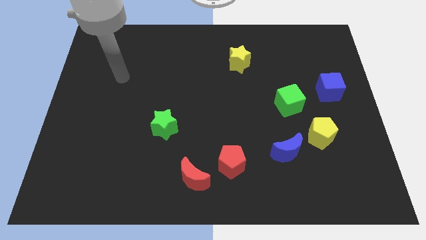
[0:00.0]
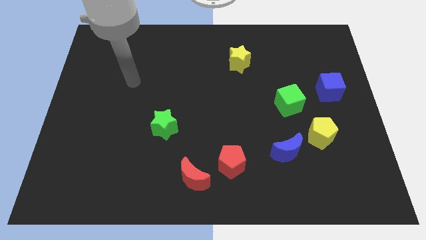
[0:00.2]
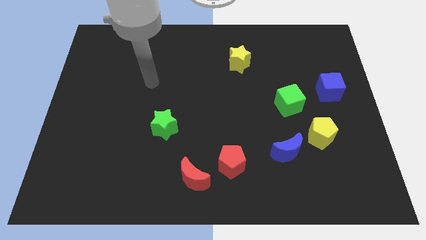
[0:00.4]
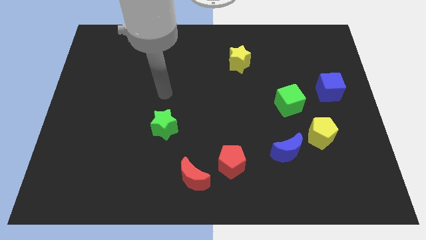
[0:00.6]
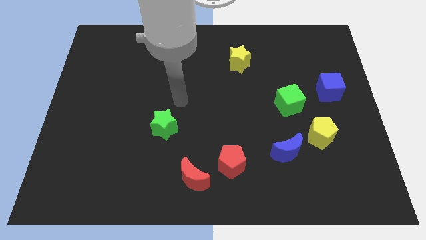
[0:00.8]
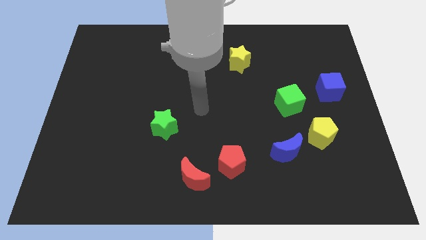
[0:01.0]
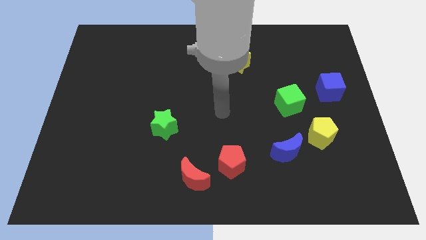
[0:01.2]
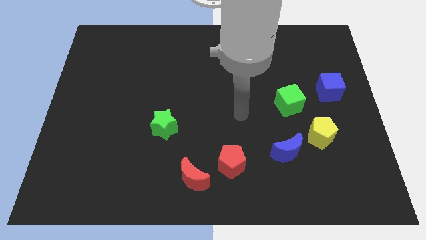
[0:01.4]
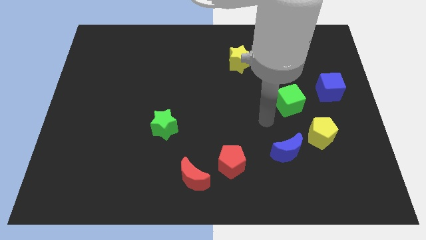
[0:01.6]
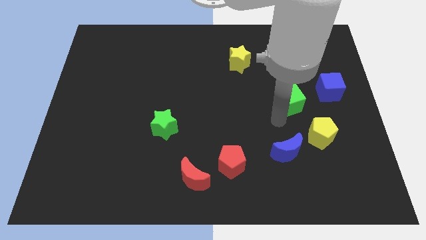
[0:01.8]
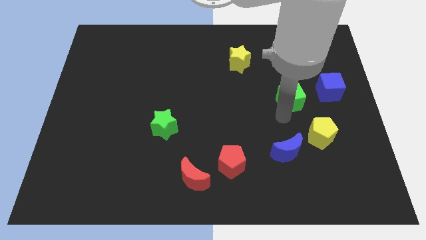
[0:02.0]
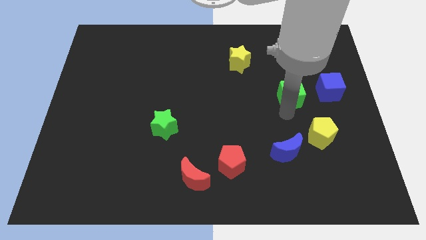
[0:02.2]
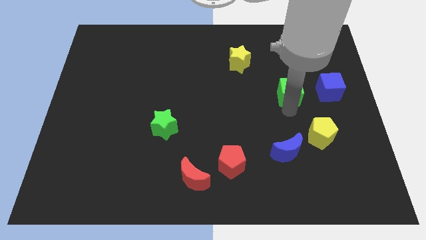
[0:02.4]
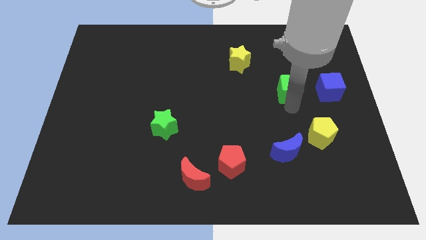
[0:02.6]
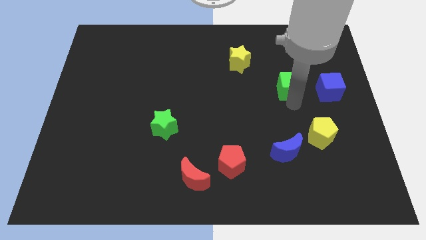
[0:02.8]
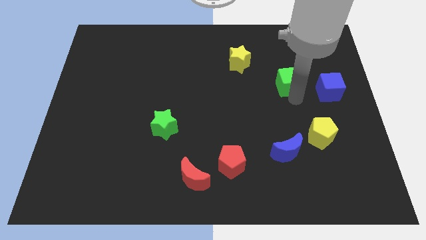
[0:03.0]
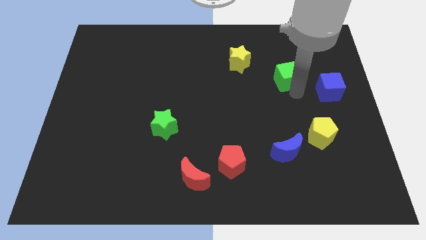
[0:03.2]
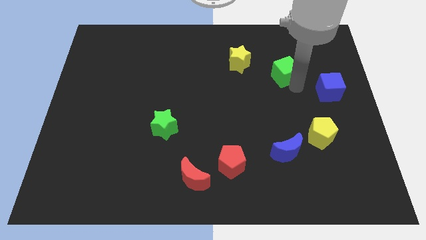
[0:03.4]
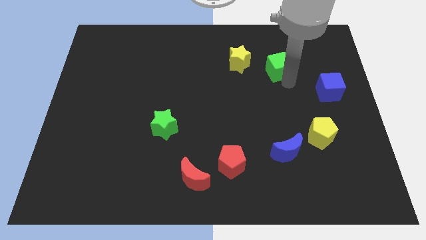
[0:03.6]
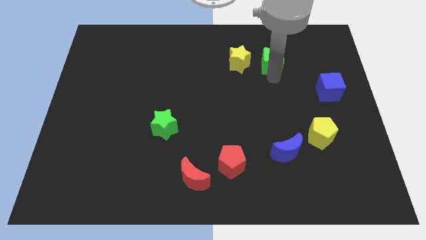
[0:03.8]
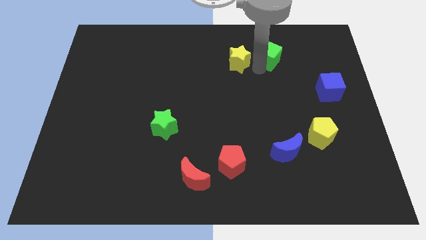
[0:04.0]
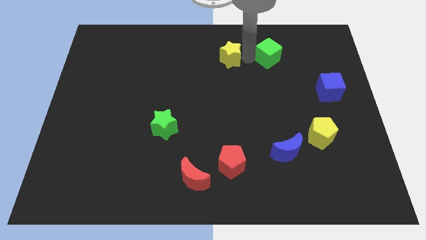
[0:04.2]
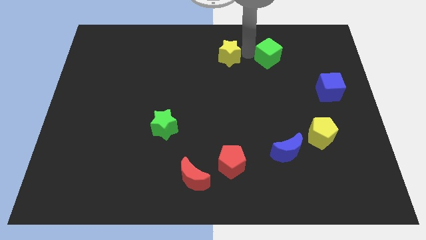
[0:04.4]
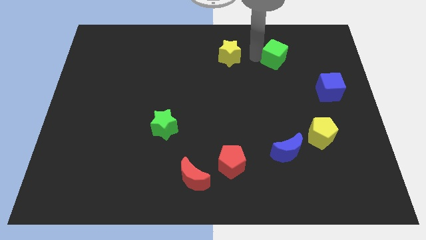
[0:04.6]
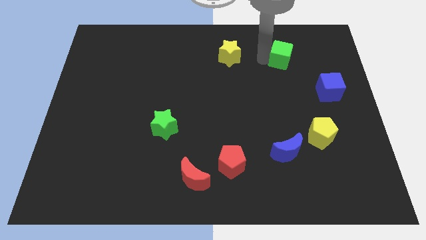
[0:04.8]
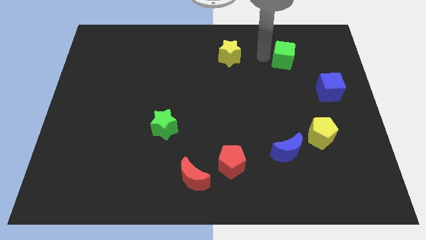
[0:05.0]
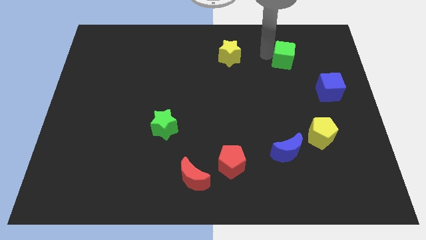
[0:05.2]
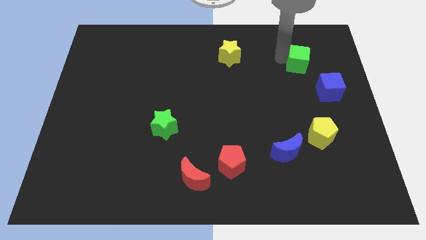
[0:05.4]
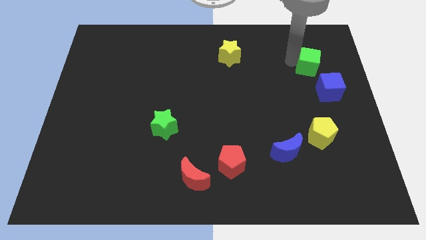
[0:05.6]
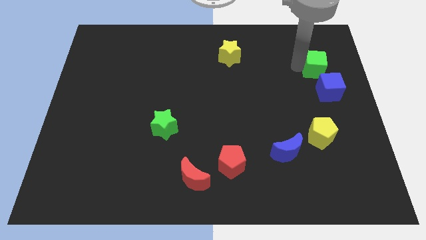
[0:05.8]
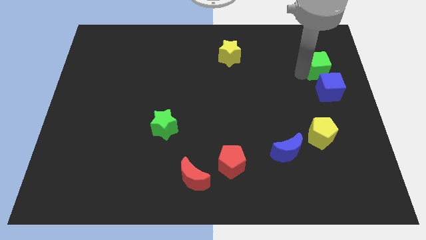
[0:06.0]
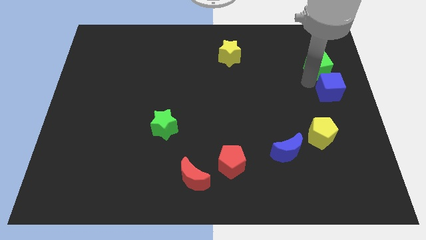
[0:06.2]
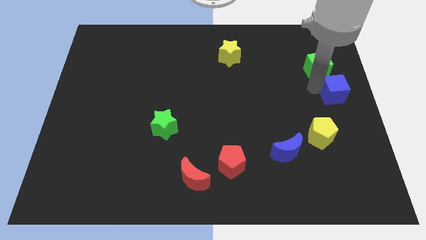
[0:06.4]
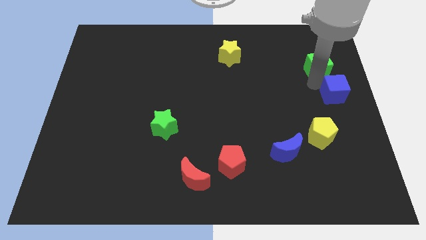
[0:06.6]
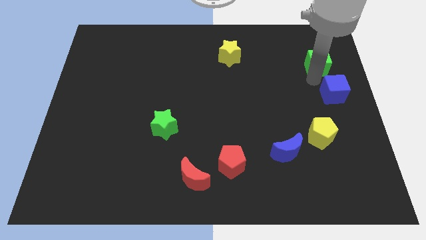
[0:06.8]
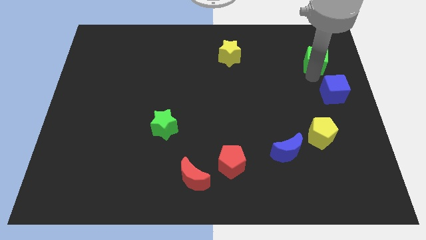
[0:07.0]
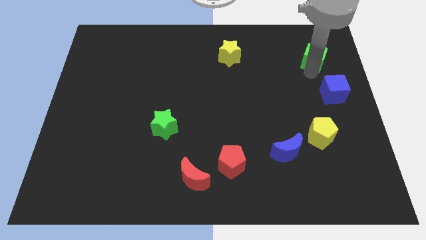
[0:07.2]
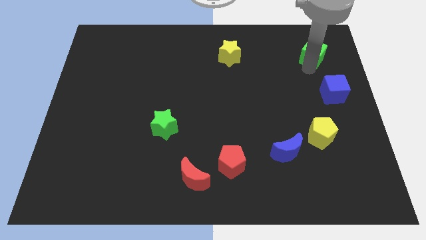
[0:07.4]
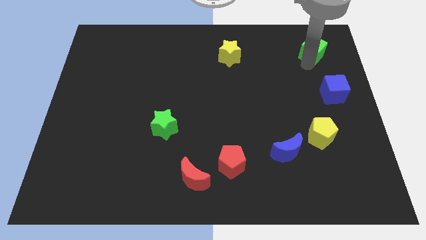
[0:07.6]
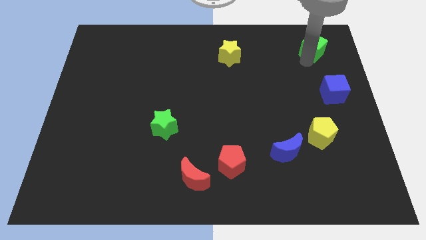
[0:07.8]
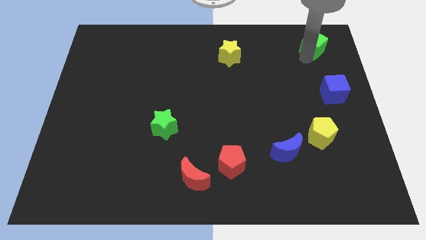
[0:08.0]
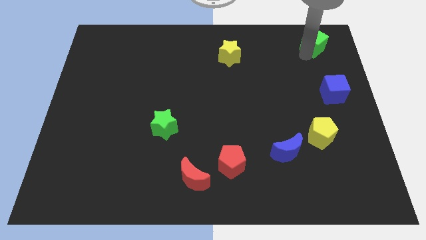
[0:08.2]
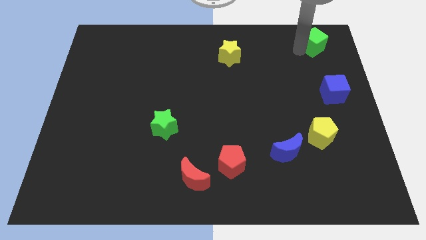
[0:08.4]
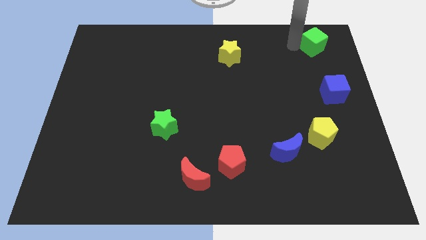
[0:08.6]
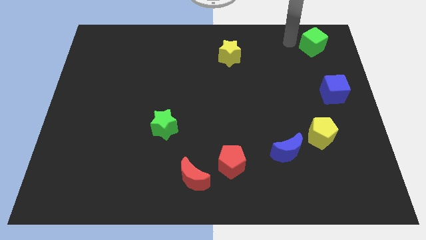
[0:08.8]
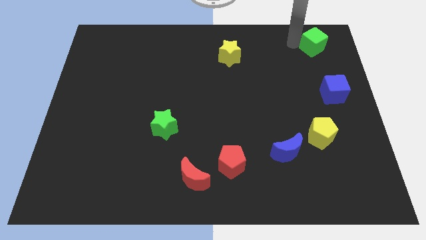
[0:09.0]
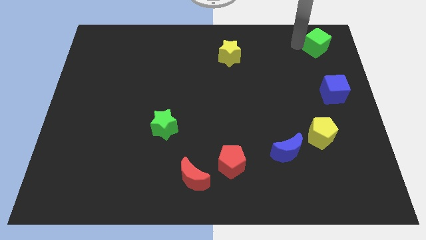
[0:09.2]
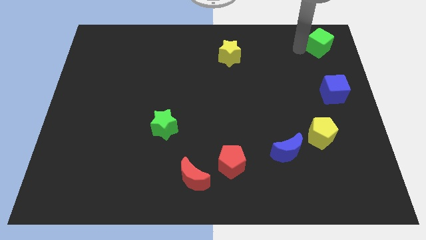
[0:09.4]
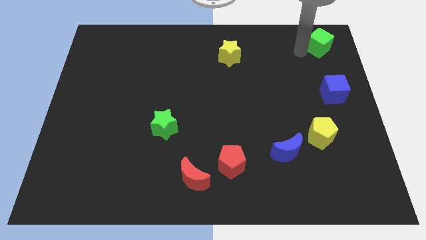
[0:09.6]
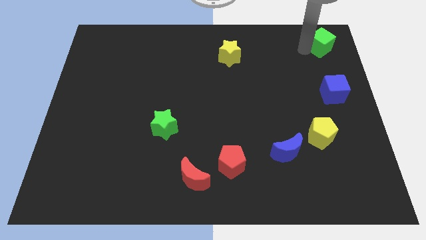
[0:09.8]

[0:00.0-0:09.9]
push the green cube to the top right of the board

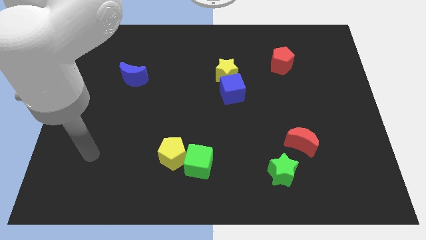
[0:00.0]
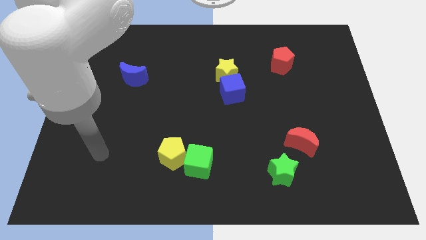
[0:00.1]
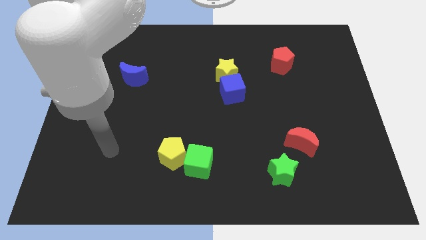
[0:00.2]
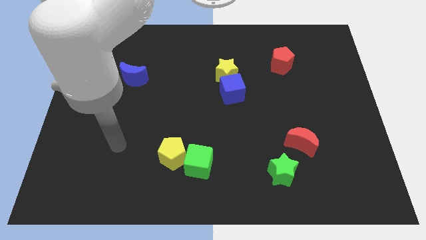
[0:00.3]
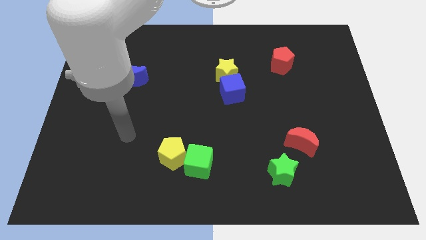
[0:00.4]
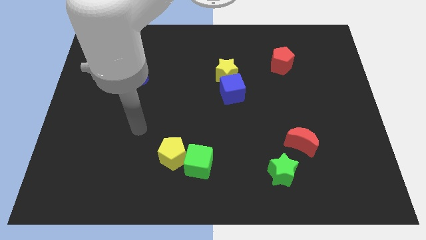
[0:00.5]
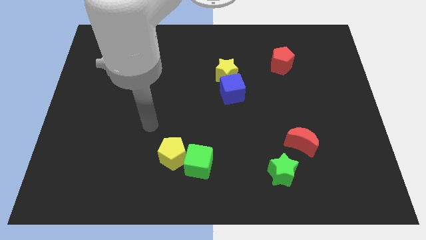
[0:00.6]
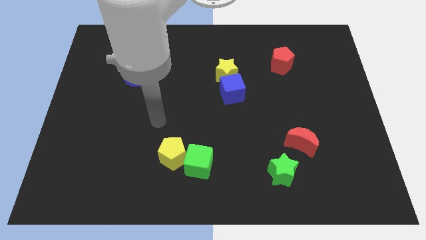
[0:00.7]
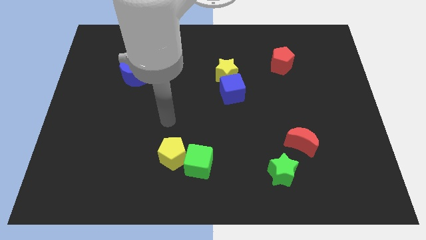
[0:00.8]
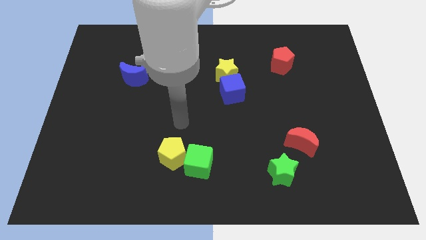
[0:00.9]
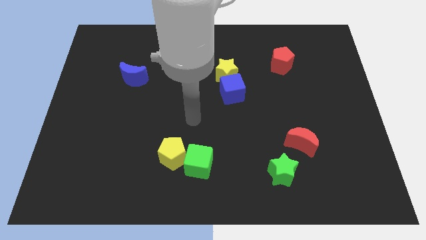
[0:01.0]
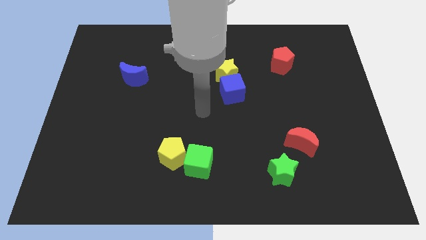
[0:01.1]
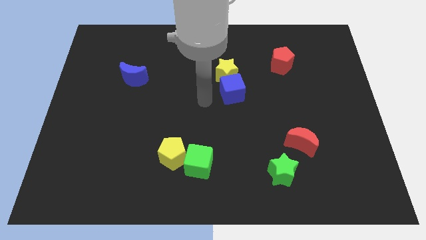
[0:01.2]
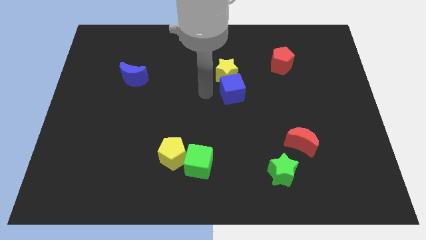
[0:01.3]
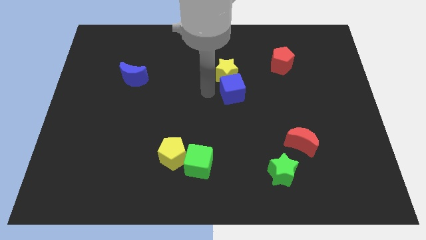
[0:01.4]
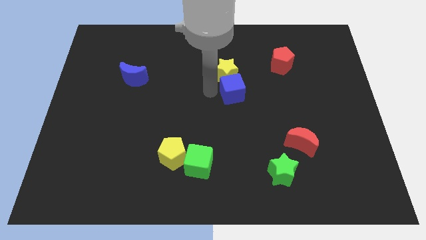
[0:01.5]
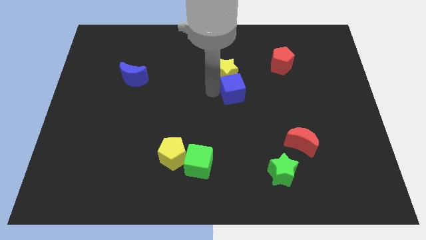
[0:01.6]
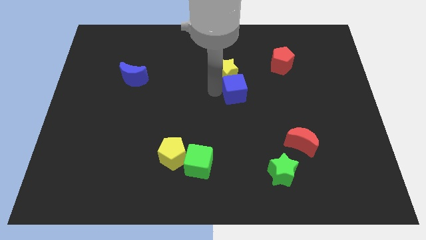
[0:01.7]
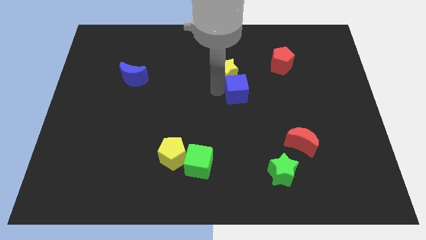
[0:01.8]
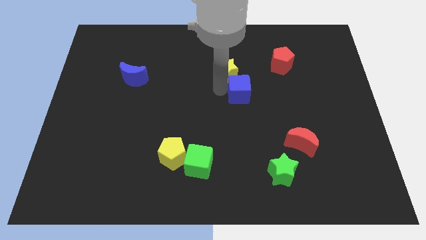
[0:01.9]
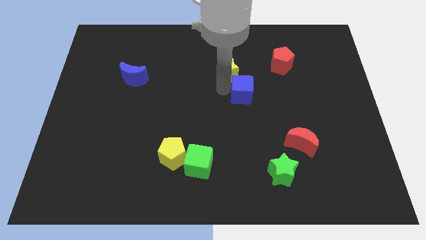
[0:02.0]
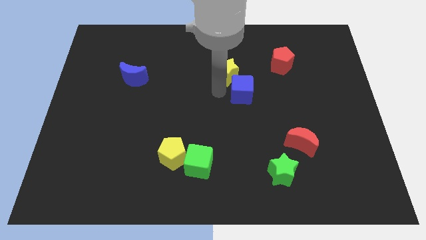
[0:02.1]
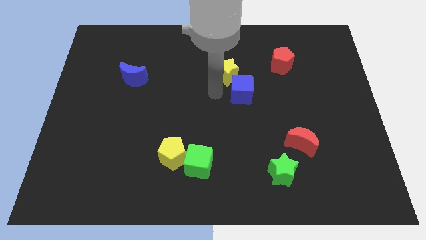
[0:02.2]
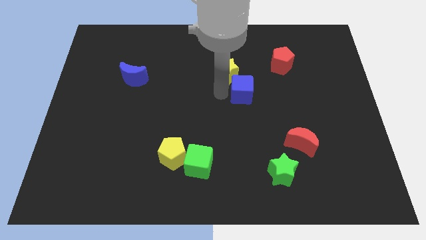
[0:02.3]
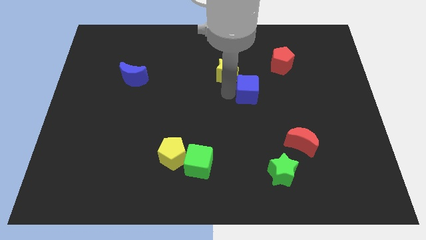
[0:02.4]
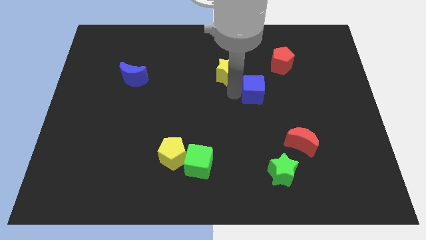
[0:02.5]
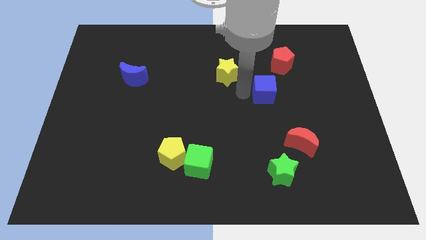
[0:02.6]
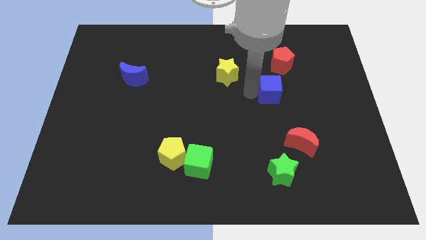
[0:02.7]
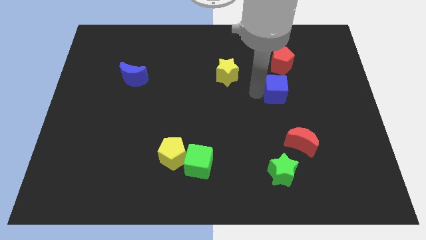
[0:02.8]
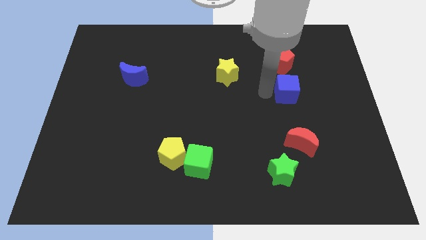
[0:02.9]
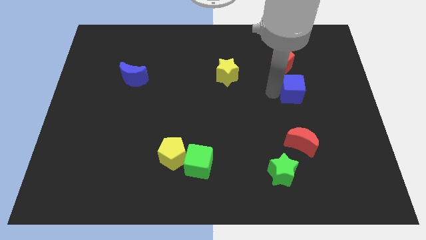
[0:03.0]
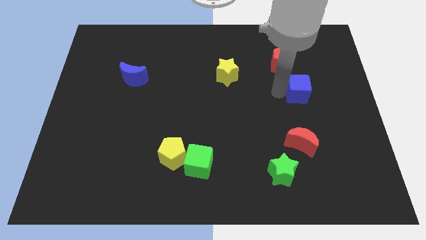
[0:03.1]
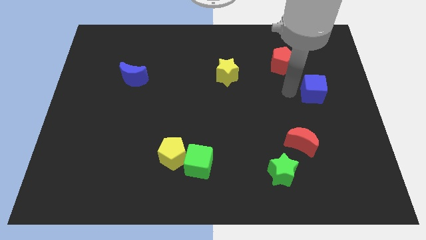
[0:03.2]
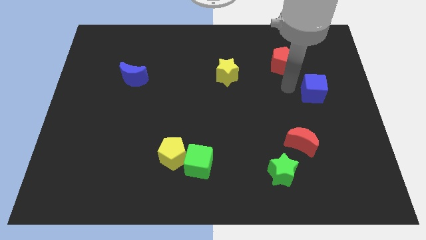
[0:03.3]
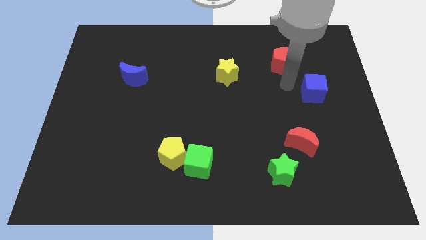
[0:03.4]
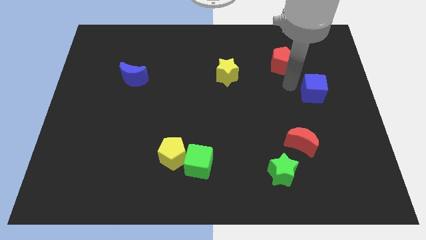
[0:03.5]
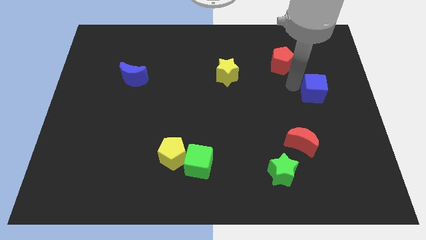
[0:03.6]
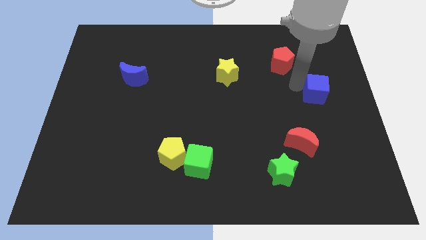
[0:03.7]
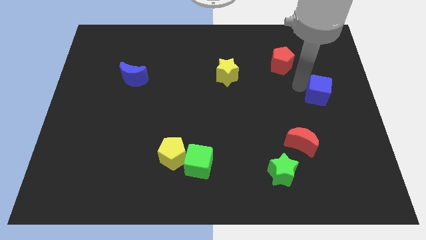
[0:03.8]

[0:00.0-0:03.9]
push the blue cube to the right side
